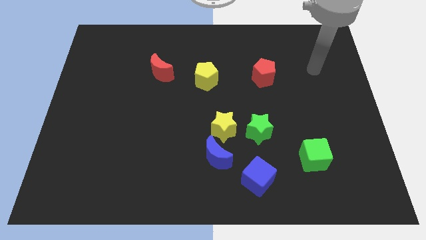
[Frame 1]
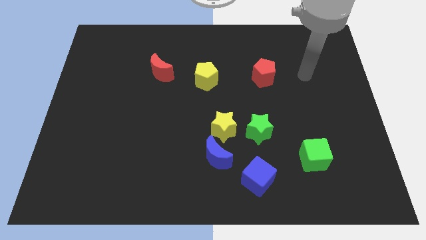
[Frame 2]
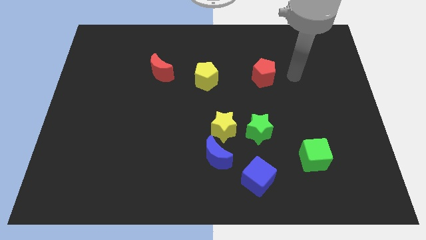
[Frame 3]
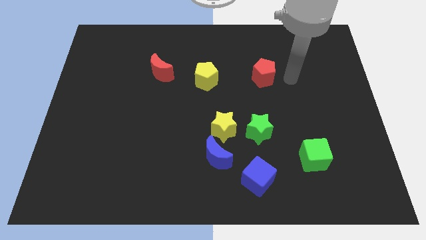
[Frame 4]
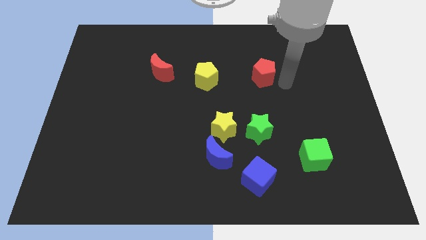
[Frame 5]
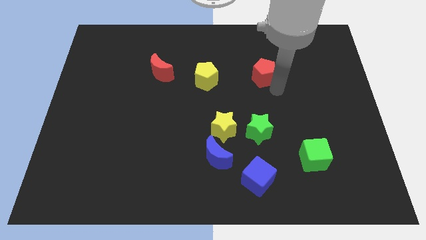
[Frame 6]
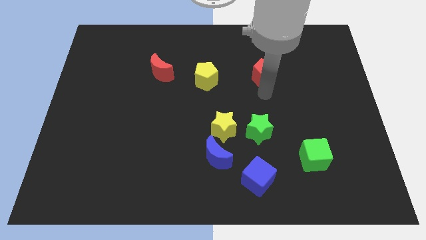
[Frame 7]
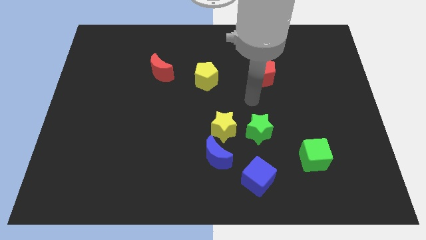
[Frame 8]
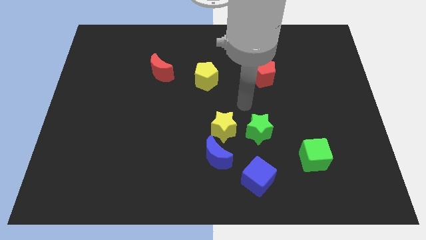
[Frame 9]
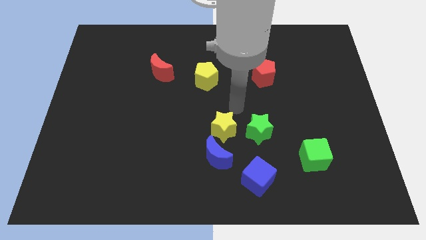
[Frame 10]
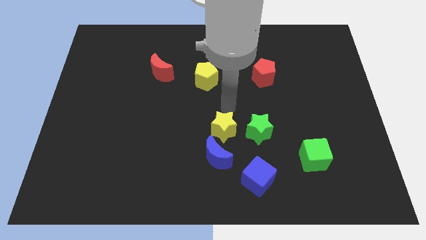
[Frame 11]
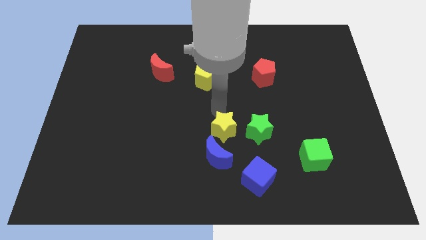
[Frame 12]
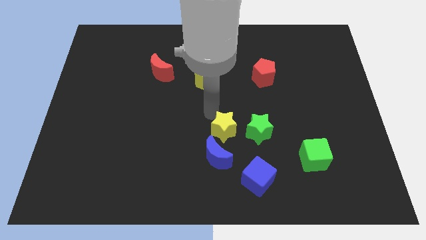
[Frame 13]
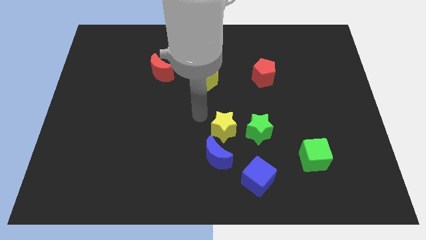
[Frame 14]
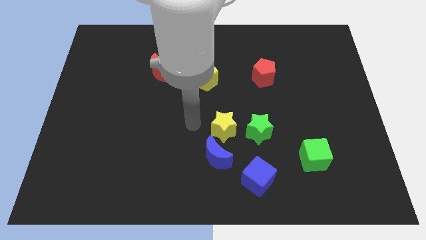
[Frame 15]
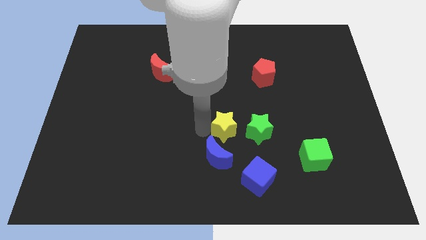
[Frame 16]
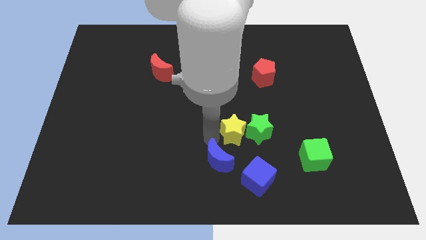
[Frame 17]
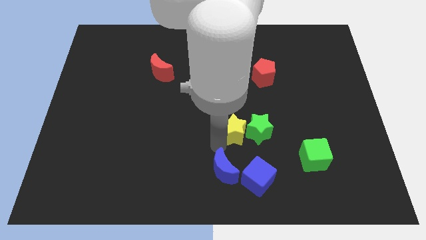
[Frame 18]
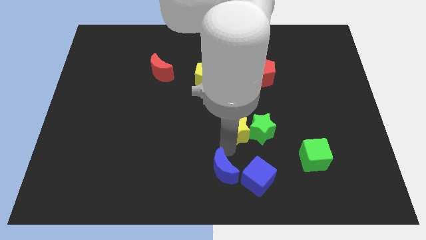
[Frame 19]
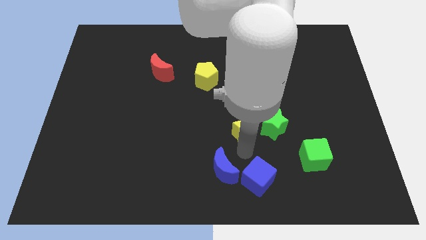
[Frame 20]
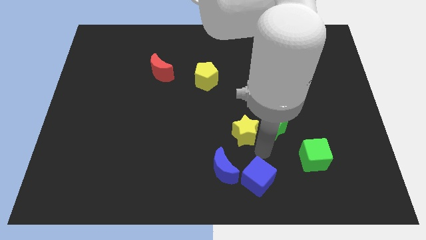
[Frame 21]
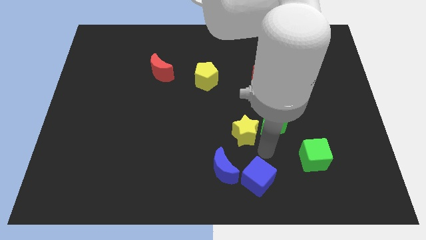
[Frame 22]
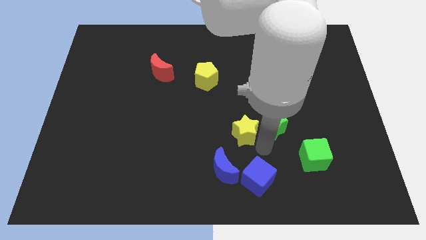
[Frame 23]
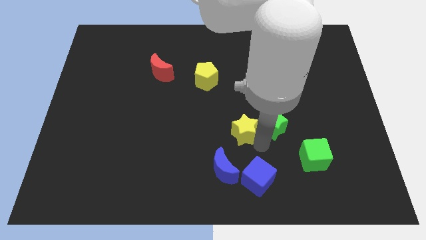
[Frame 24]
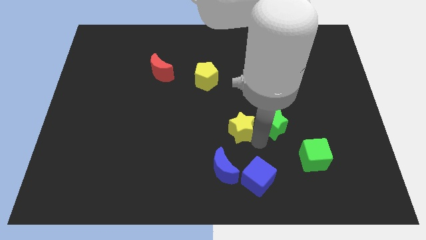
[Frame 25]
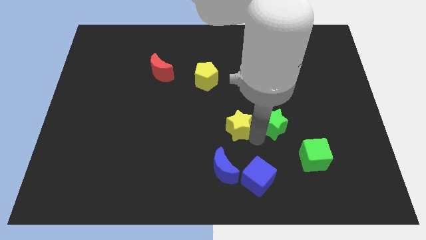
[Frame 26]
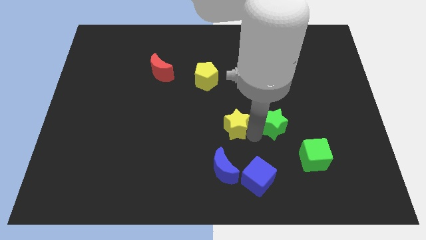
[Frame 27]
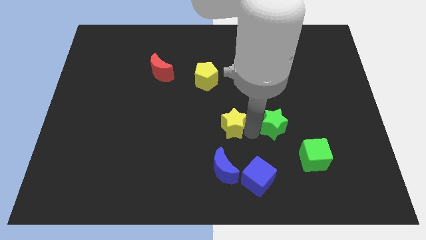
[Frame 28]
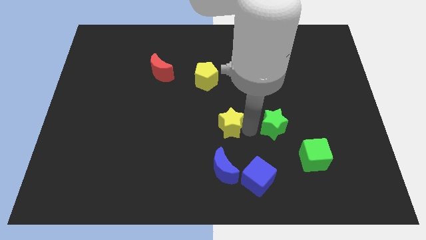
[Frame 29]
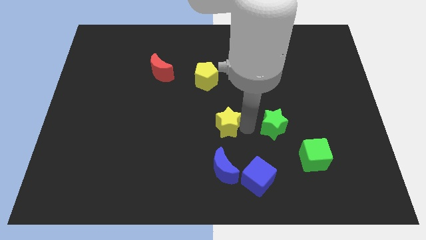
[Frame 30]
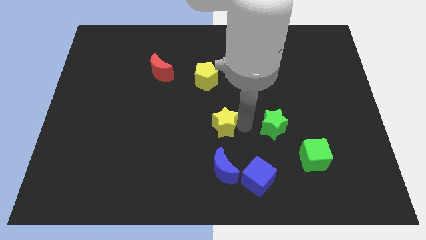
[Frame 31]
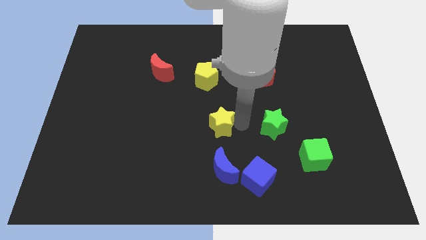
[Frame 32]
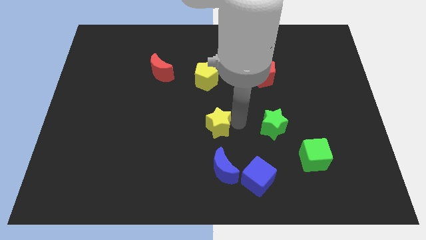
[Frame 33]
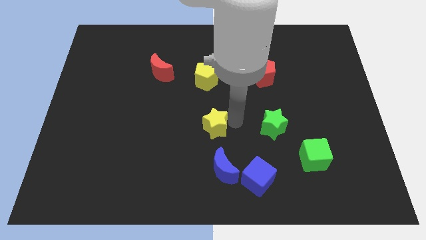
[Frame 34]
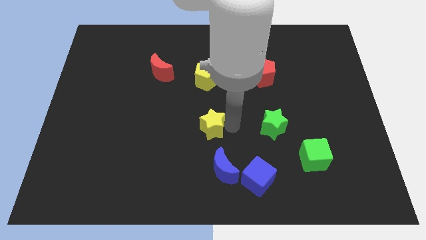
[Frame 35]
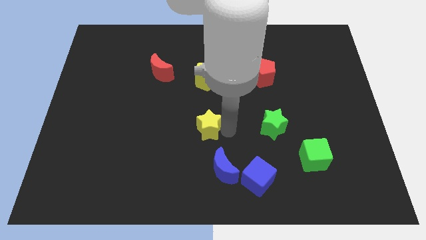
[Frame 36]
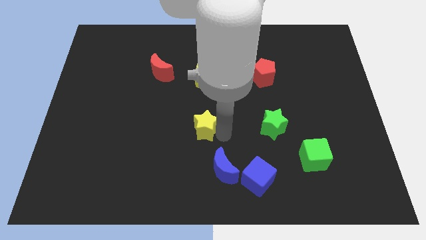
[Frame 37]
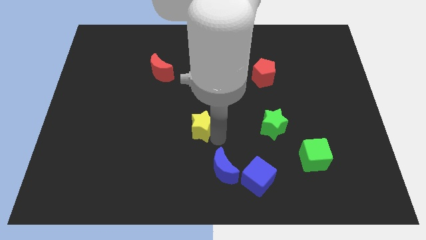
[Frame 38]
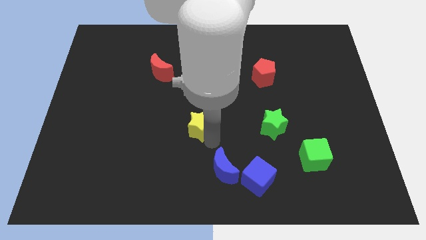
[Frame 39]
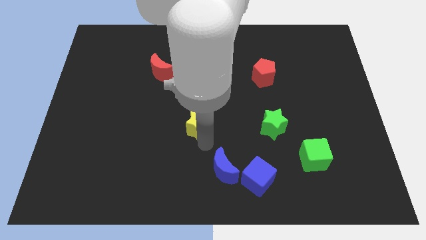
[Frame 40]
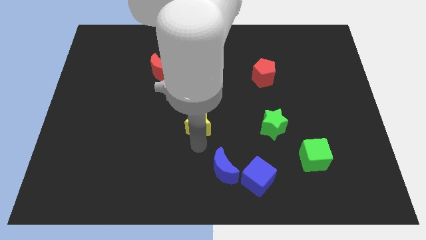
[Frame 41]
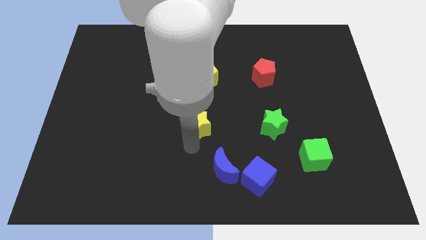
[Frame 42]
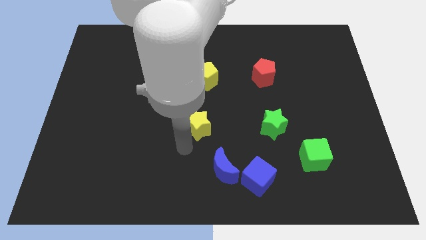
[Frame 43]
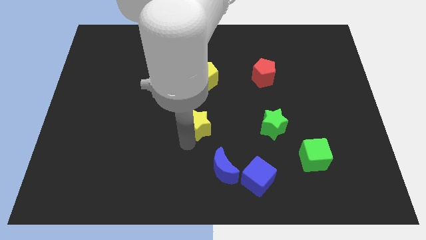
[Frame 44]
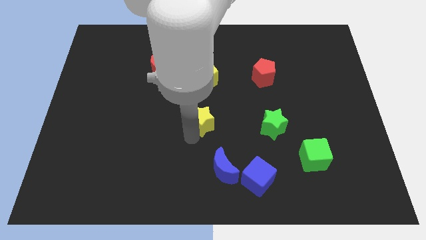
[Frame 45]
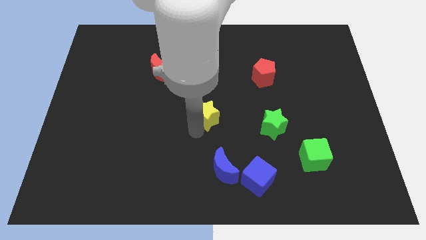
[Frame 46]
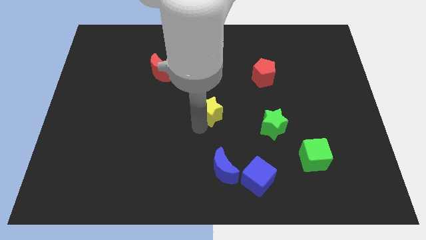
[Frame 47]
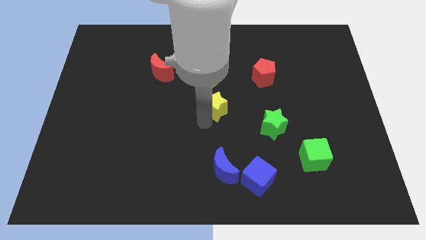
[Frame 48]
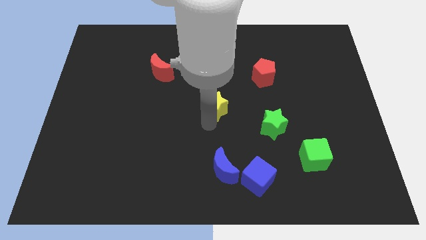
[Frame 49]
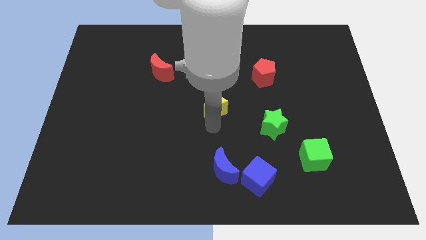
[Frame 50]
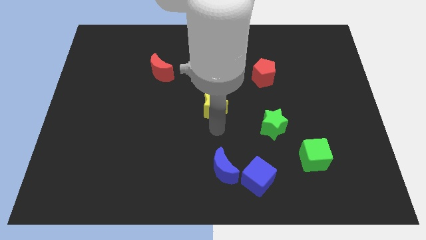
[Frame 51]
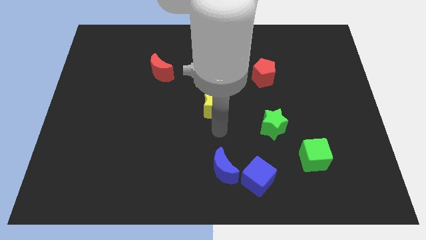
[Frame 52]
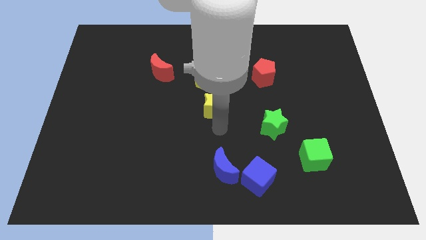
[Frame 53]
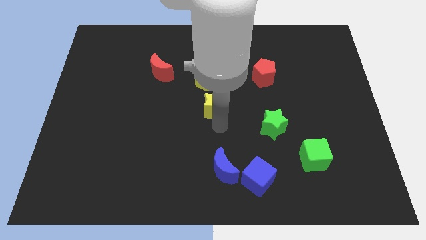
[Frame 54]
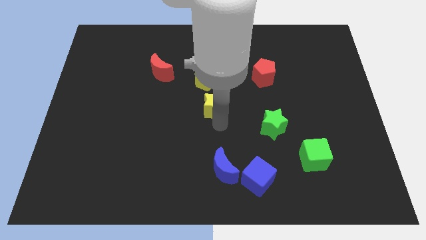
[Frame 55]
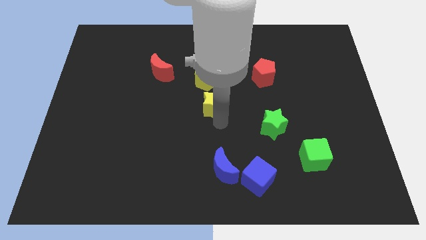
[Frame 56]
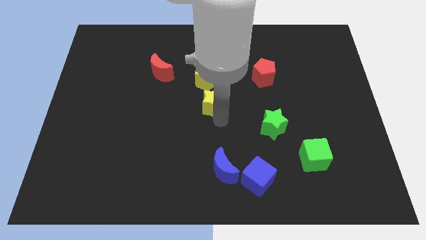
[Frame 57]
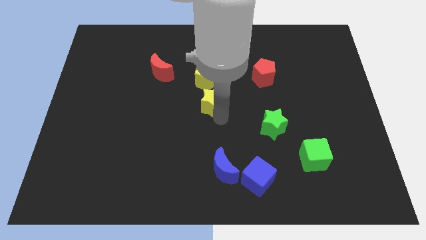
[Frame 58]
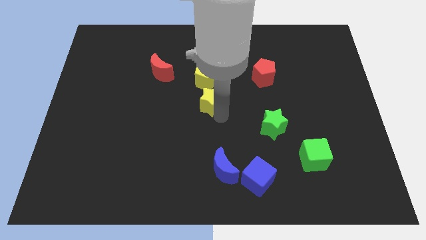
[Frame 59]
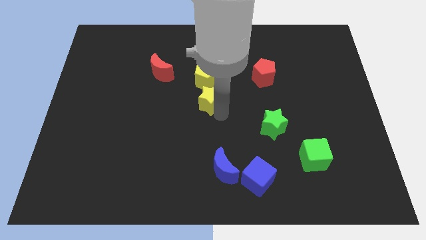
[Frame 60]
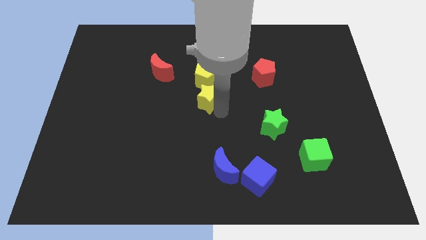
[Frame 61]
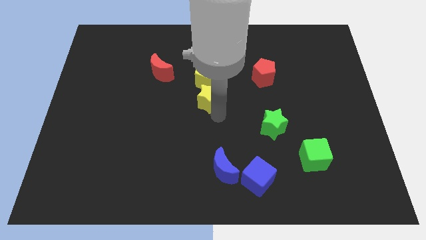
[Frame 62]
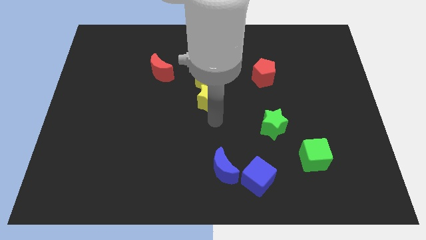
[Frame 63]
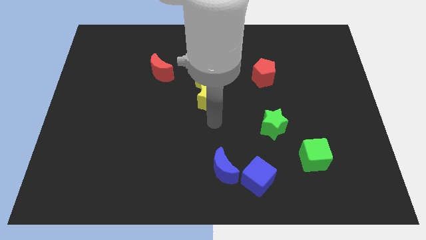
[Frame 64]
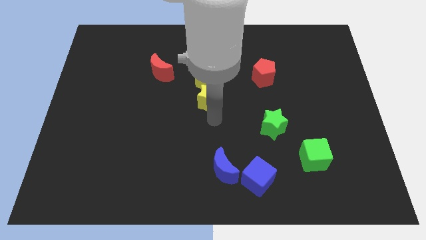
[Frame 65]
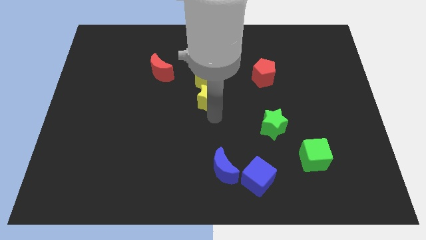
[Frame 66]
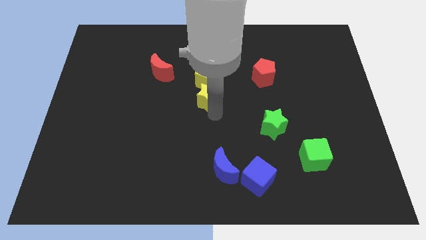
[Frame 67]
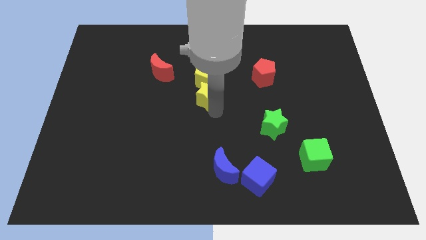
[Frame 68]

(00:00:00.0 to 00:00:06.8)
push the yellow star next to the yellow pentagon

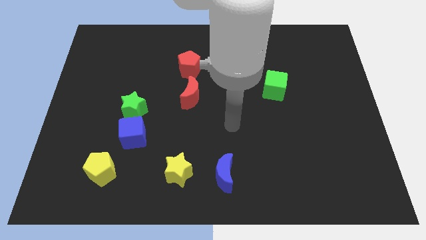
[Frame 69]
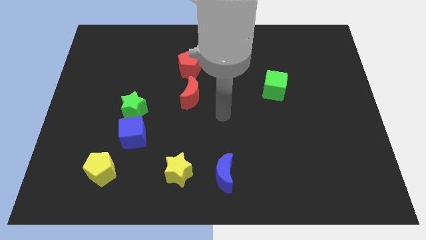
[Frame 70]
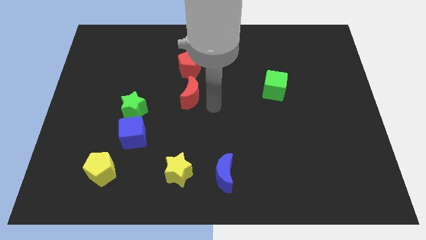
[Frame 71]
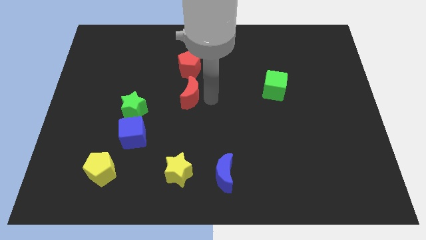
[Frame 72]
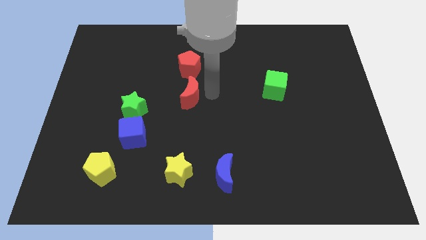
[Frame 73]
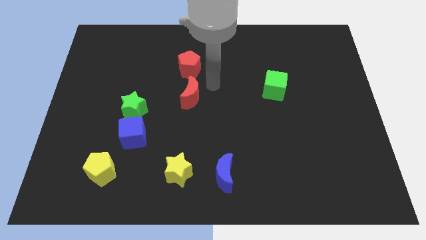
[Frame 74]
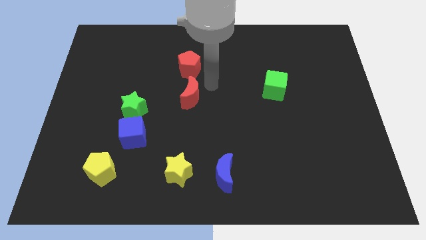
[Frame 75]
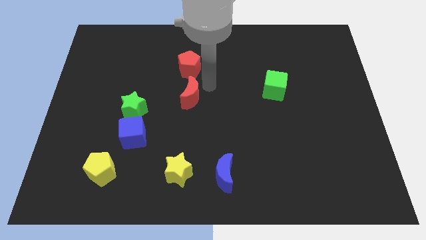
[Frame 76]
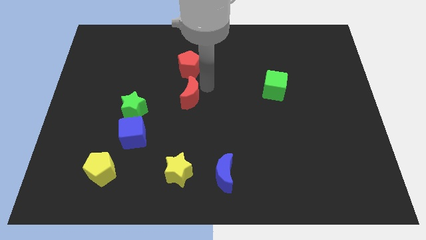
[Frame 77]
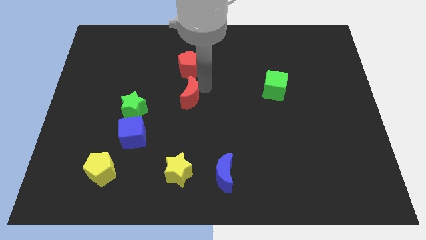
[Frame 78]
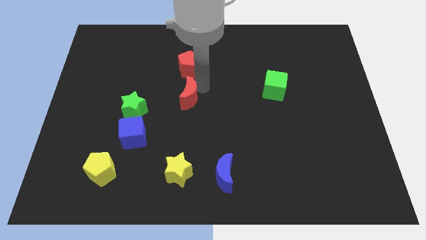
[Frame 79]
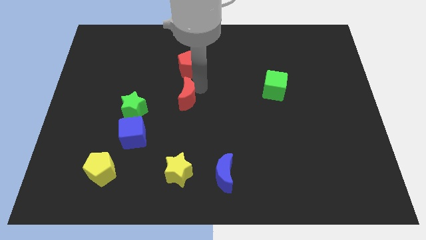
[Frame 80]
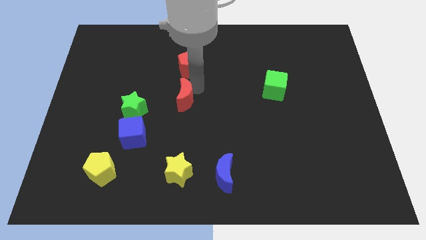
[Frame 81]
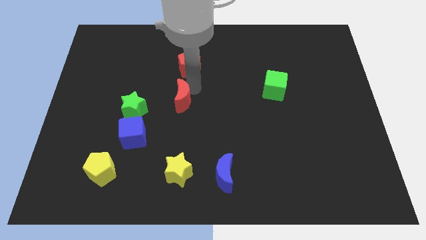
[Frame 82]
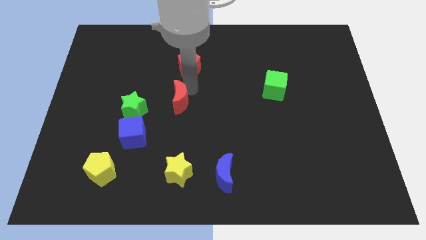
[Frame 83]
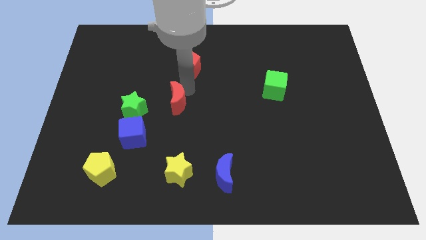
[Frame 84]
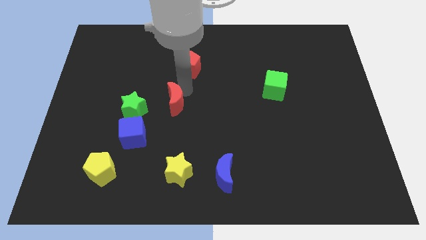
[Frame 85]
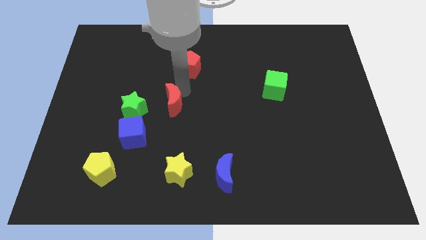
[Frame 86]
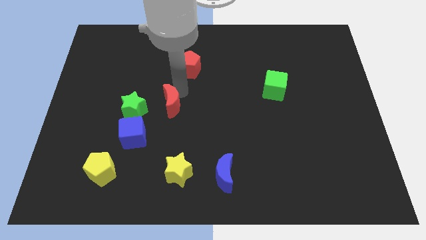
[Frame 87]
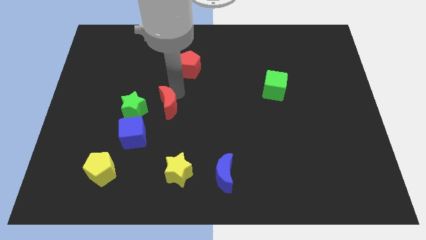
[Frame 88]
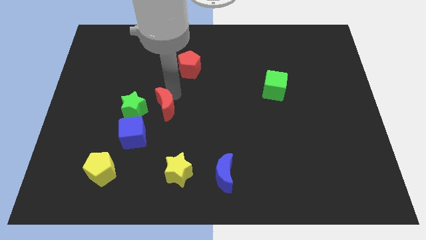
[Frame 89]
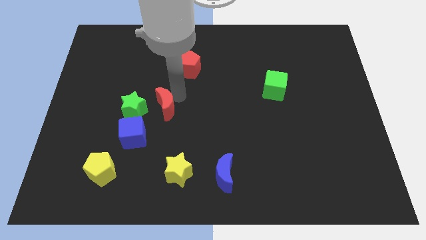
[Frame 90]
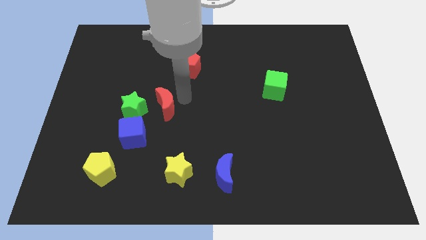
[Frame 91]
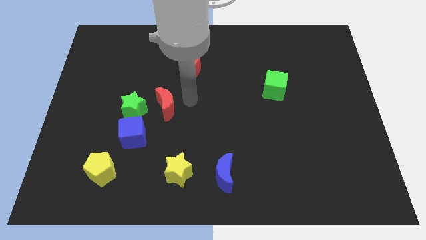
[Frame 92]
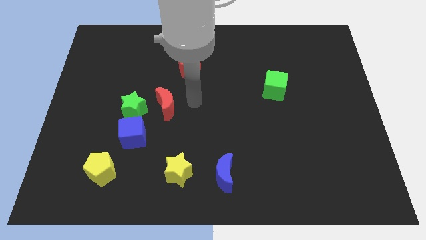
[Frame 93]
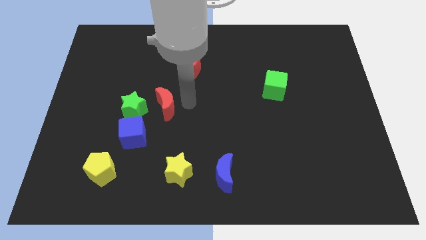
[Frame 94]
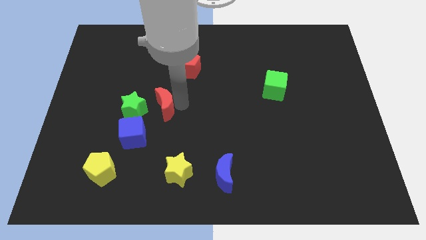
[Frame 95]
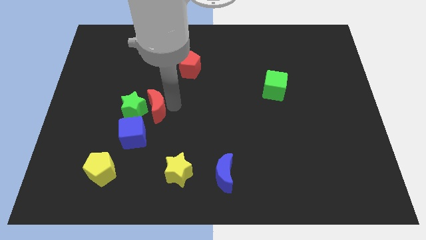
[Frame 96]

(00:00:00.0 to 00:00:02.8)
slide the red moon close to the green star
